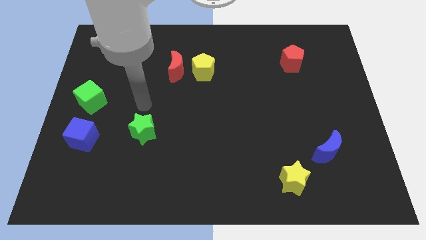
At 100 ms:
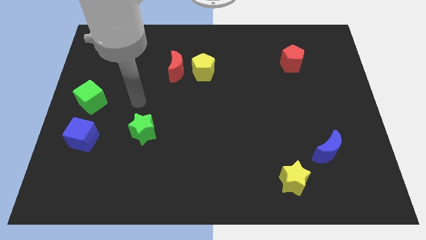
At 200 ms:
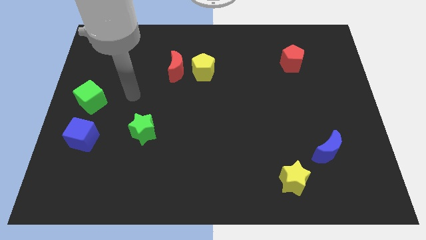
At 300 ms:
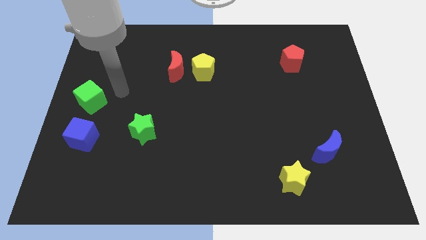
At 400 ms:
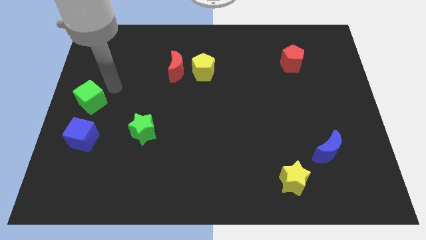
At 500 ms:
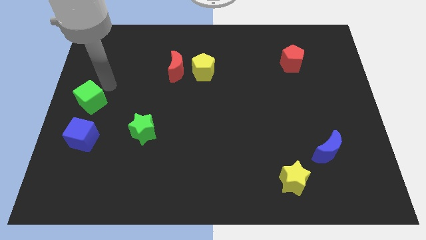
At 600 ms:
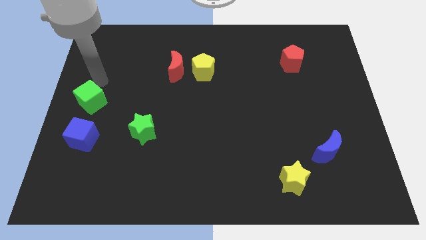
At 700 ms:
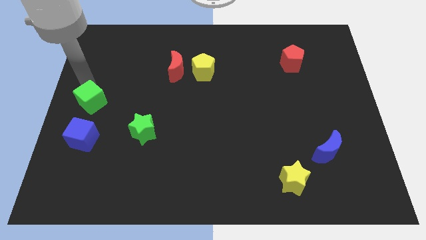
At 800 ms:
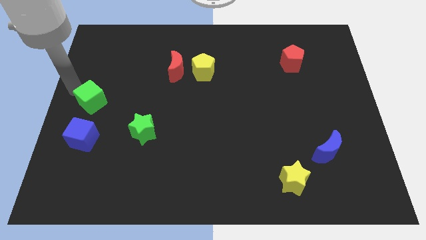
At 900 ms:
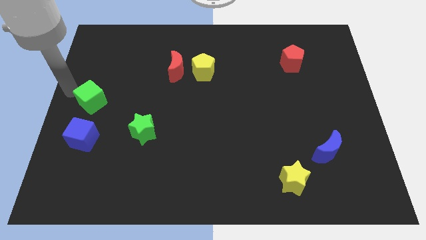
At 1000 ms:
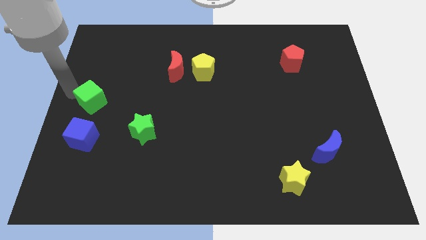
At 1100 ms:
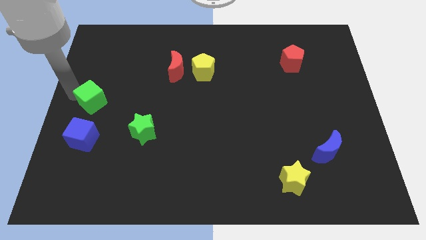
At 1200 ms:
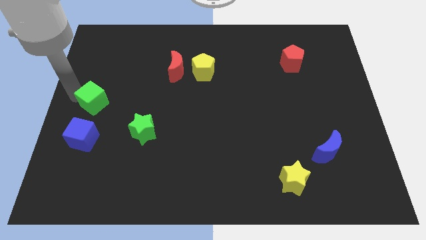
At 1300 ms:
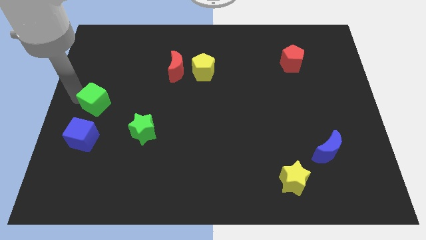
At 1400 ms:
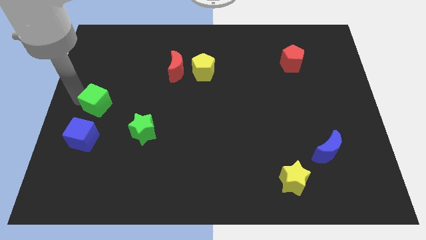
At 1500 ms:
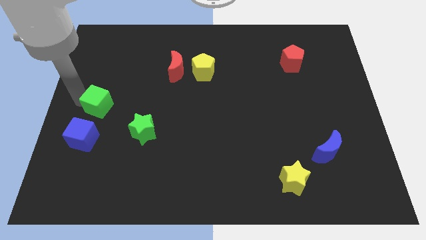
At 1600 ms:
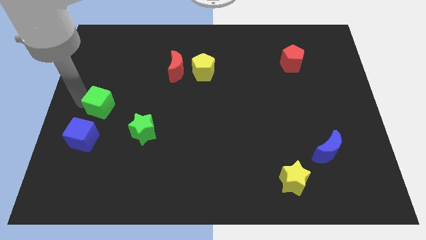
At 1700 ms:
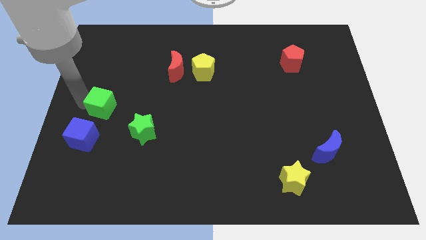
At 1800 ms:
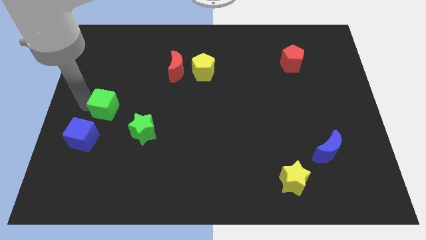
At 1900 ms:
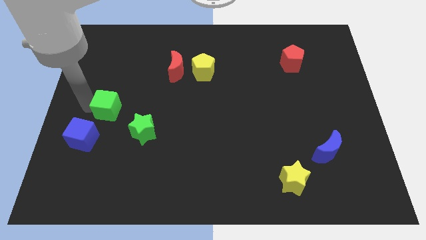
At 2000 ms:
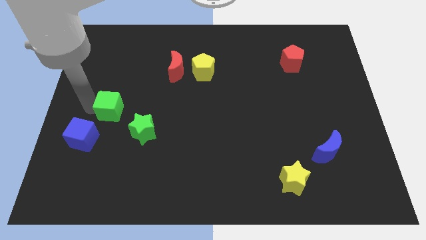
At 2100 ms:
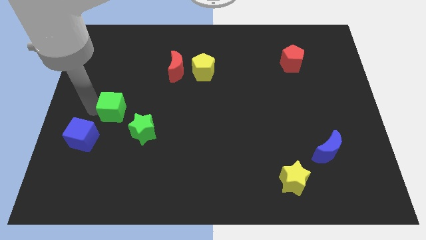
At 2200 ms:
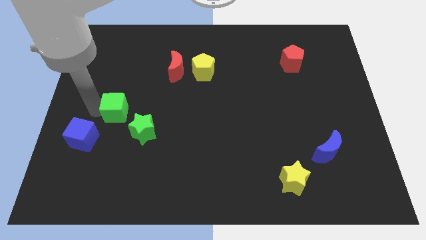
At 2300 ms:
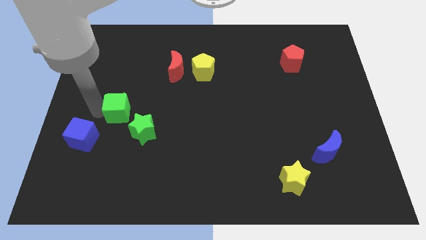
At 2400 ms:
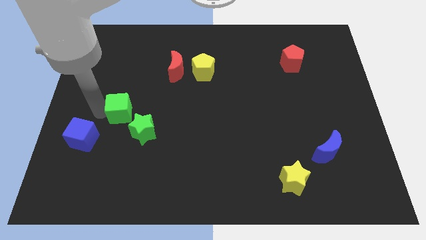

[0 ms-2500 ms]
move the green cube a bit to the right

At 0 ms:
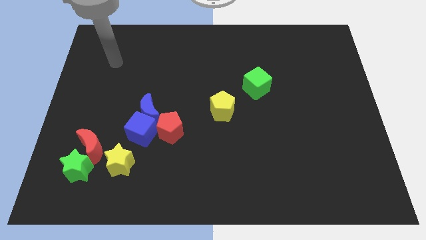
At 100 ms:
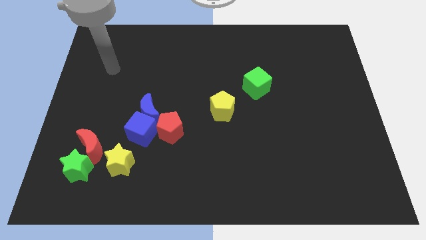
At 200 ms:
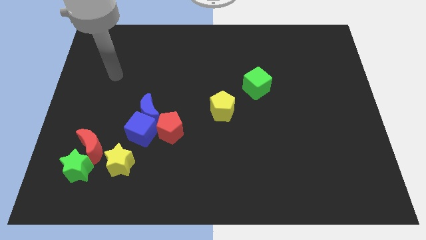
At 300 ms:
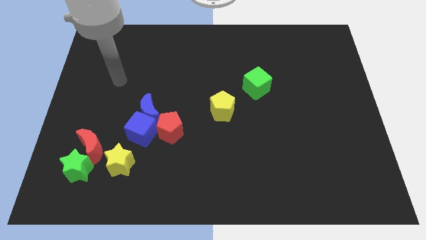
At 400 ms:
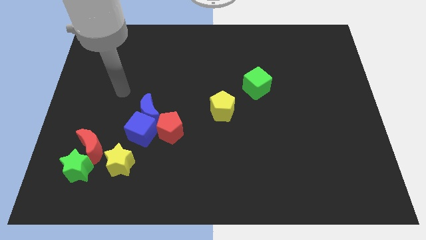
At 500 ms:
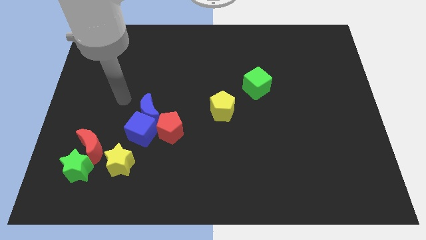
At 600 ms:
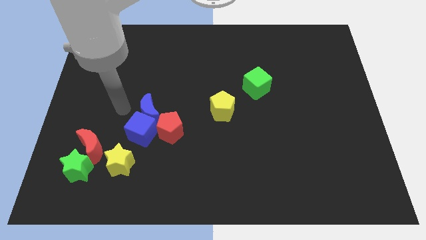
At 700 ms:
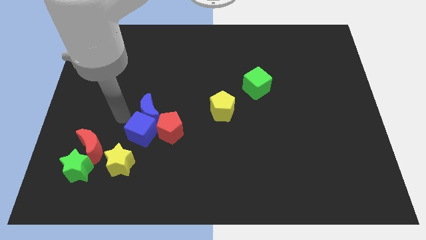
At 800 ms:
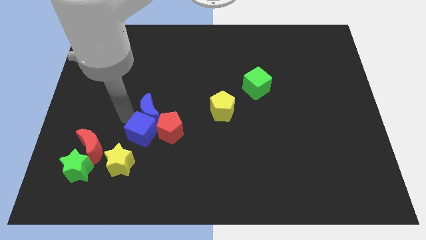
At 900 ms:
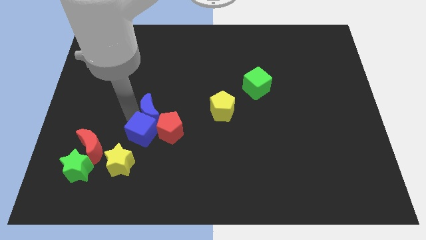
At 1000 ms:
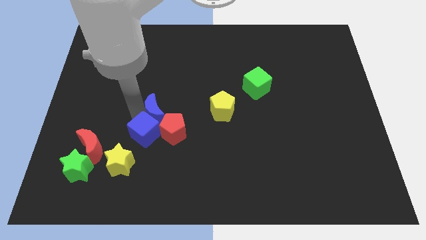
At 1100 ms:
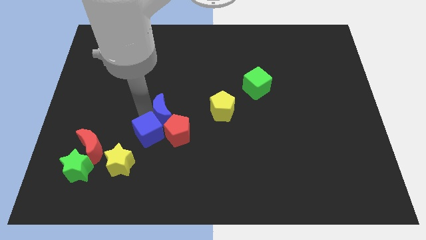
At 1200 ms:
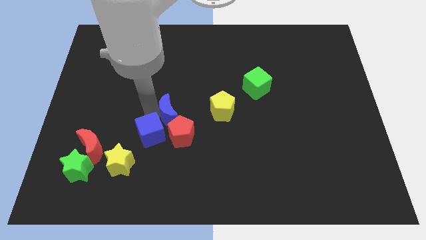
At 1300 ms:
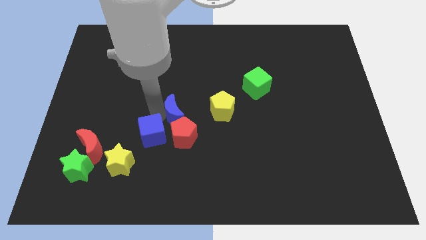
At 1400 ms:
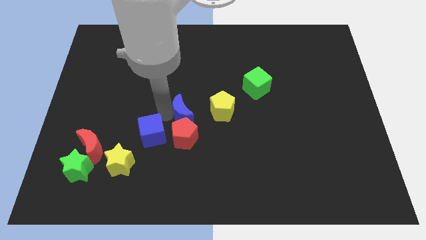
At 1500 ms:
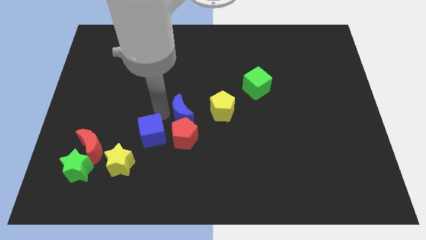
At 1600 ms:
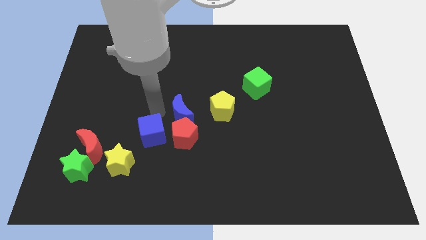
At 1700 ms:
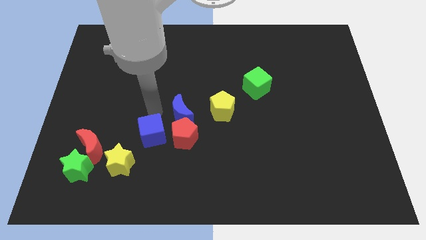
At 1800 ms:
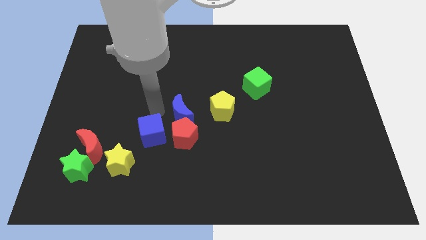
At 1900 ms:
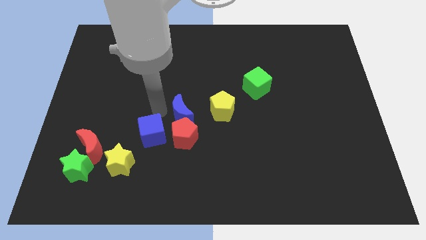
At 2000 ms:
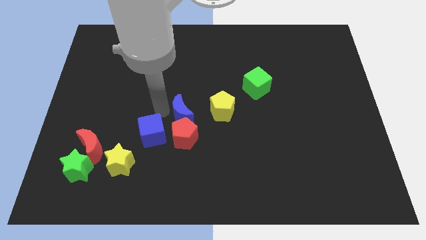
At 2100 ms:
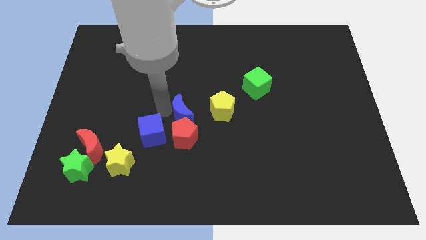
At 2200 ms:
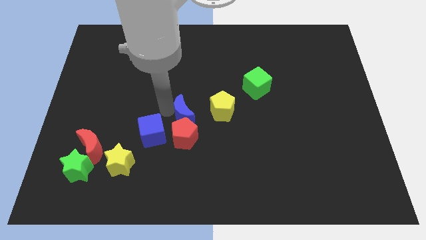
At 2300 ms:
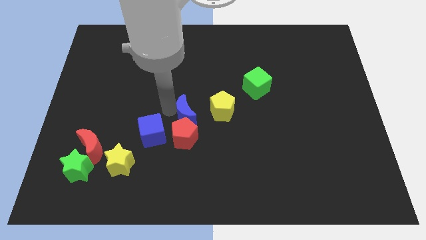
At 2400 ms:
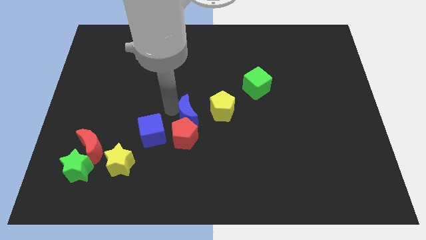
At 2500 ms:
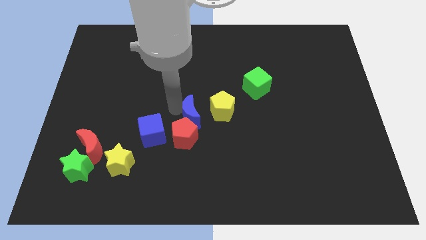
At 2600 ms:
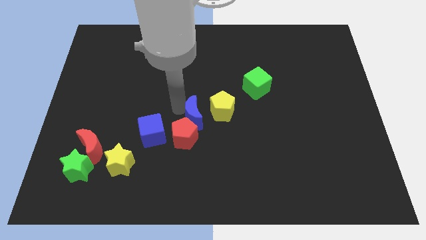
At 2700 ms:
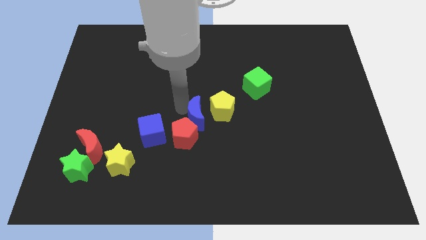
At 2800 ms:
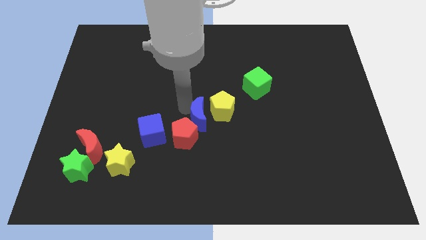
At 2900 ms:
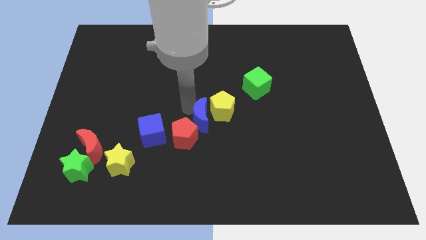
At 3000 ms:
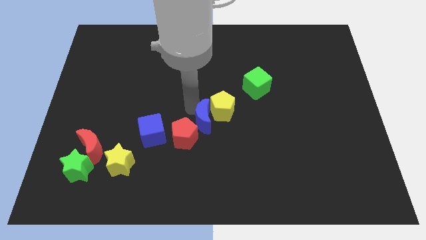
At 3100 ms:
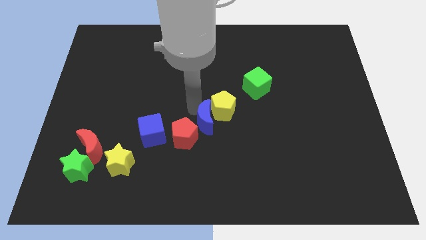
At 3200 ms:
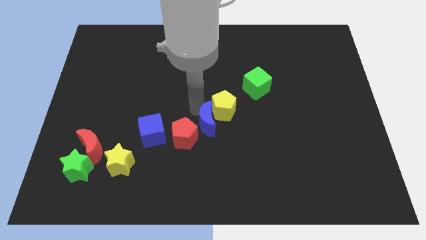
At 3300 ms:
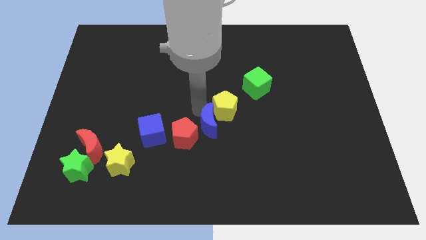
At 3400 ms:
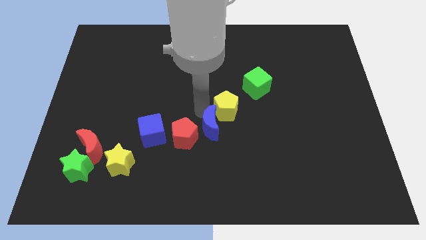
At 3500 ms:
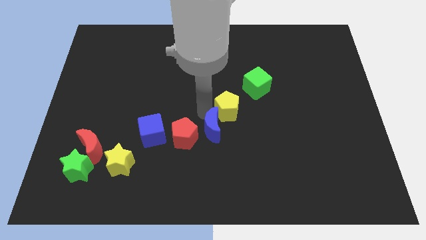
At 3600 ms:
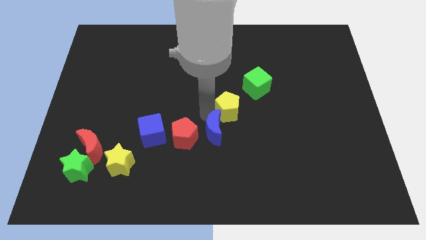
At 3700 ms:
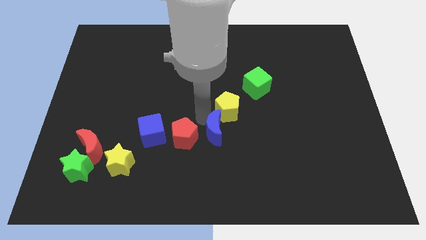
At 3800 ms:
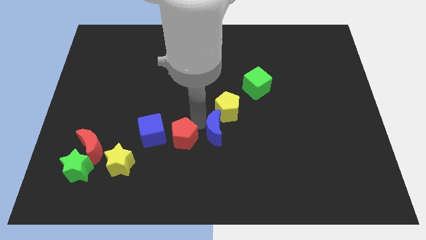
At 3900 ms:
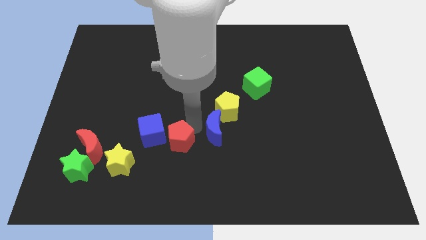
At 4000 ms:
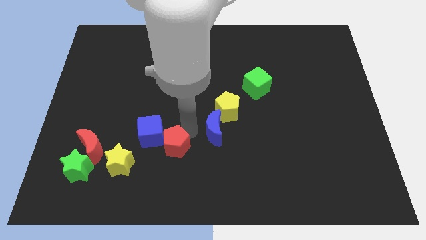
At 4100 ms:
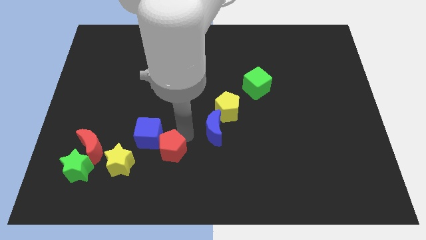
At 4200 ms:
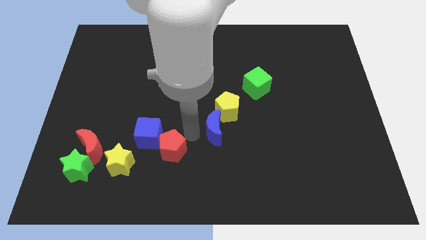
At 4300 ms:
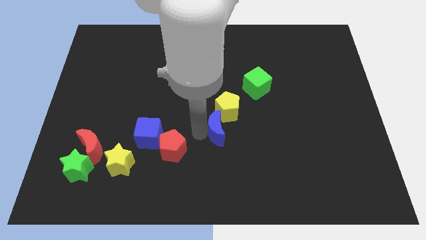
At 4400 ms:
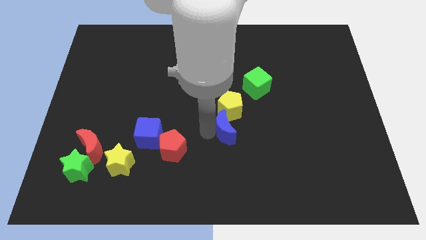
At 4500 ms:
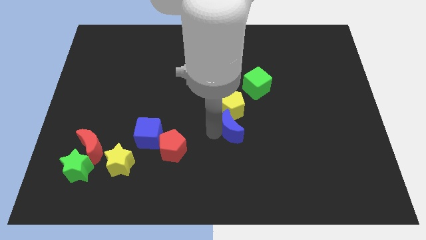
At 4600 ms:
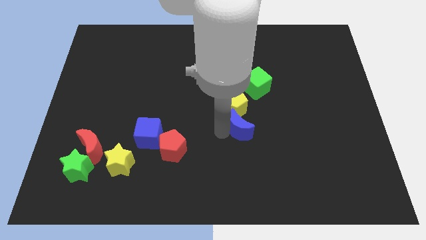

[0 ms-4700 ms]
push the blue moon right

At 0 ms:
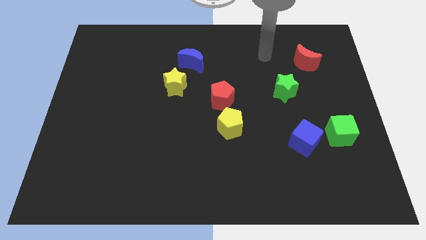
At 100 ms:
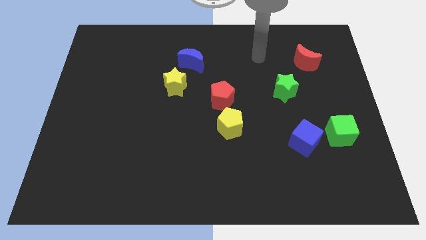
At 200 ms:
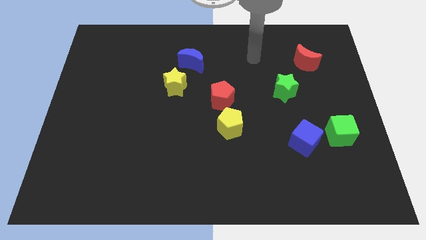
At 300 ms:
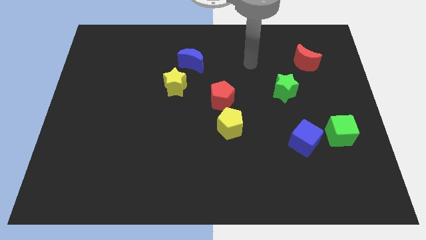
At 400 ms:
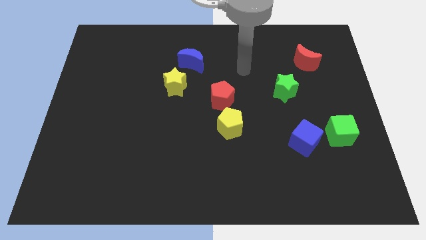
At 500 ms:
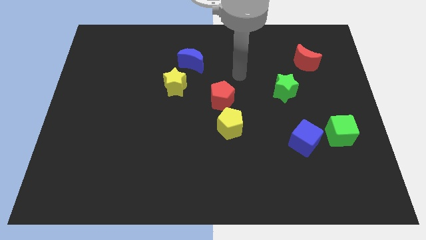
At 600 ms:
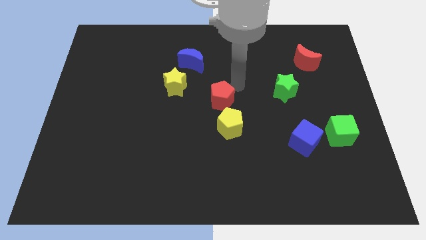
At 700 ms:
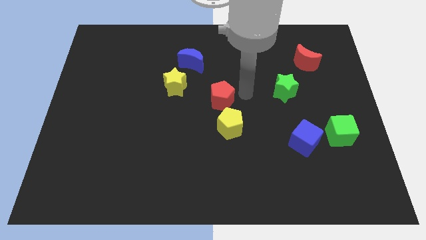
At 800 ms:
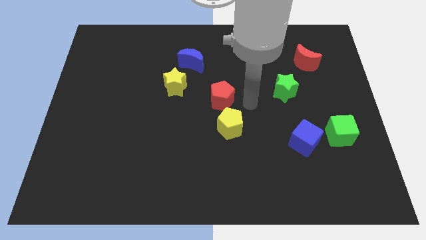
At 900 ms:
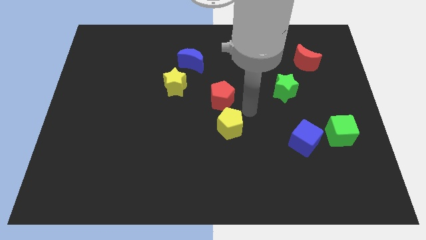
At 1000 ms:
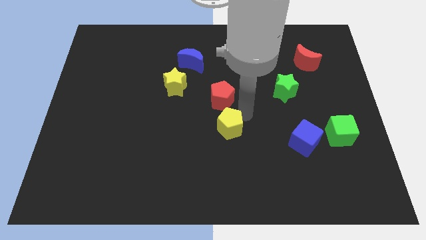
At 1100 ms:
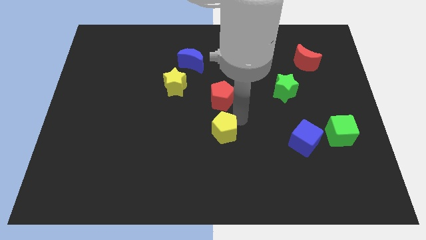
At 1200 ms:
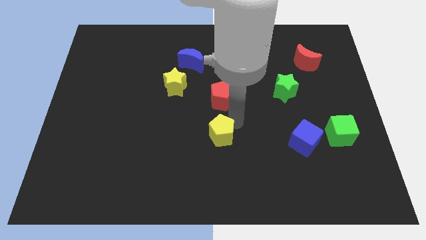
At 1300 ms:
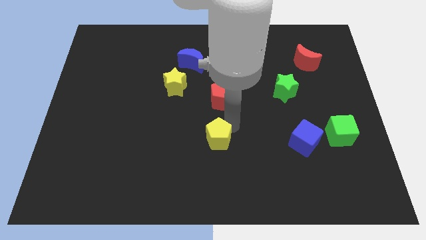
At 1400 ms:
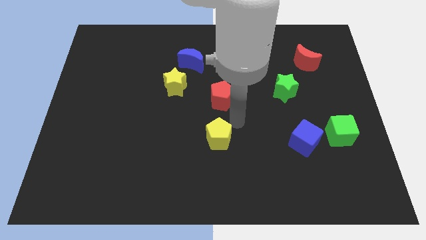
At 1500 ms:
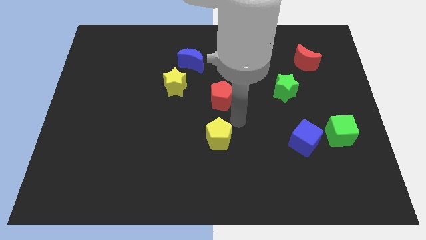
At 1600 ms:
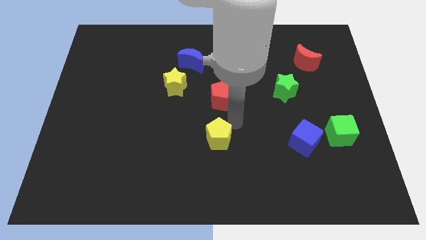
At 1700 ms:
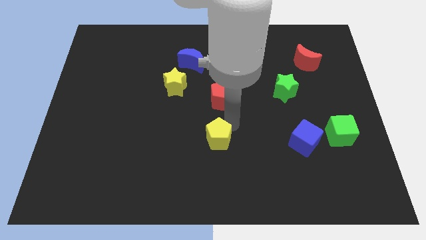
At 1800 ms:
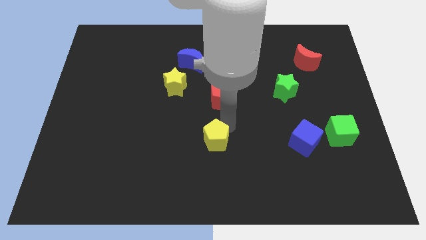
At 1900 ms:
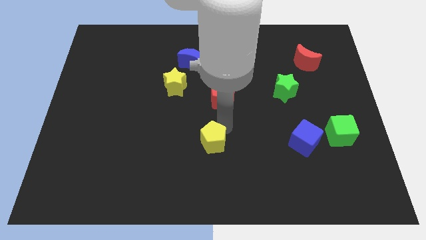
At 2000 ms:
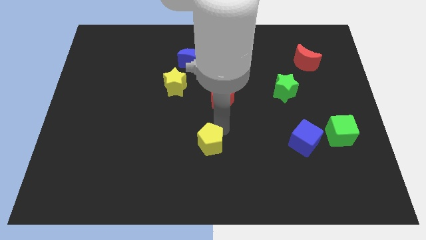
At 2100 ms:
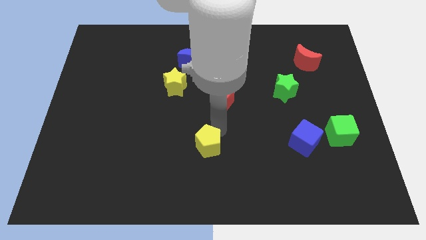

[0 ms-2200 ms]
slide the yellow pentagon downwards and then left a bit
